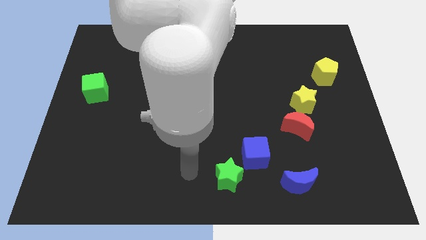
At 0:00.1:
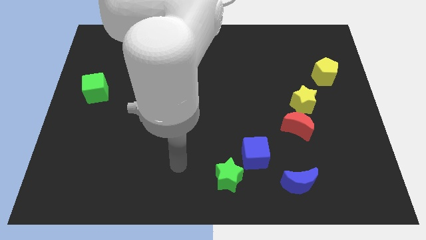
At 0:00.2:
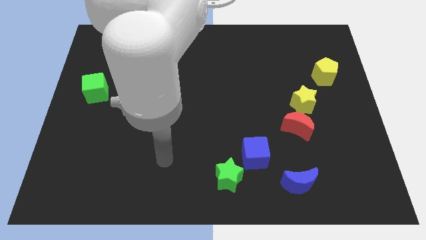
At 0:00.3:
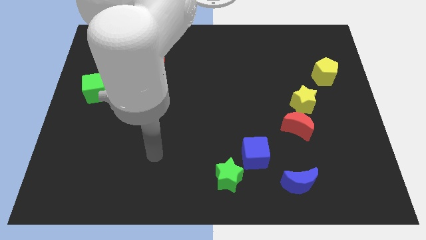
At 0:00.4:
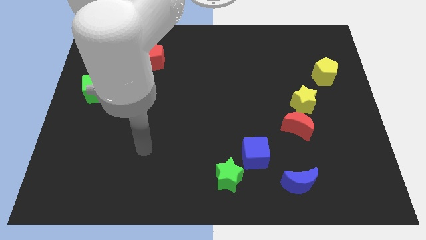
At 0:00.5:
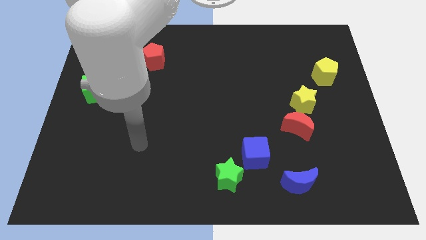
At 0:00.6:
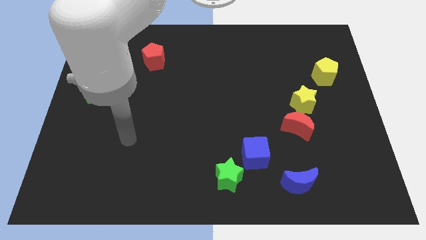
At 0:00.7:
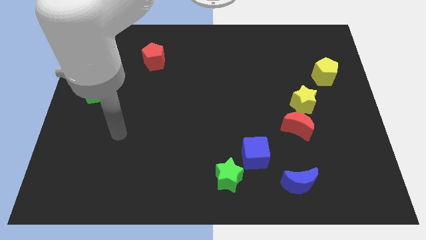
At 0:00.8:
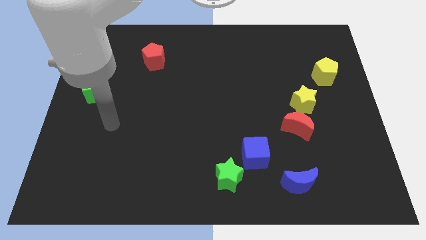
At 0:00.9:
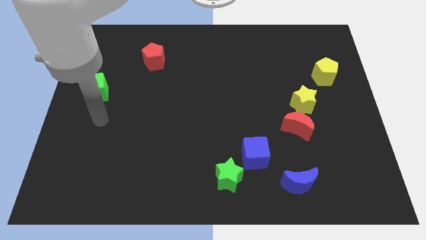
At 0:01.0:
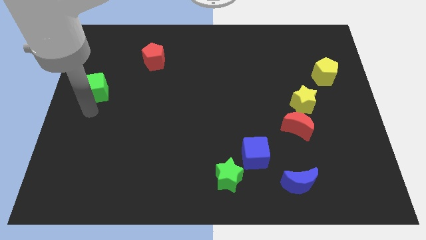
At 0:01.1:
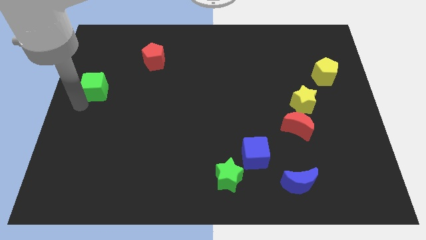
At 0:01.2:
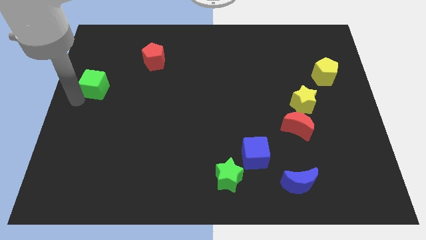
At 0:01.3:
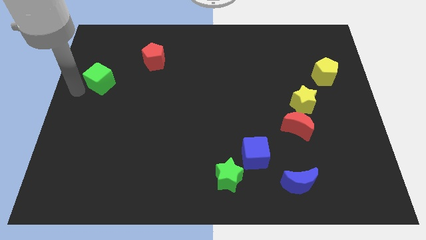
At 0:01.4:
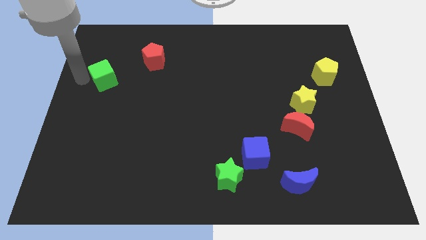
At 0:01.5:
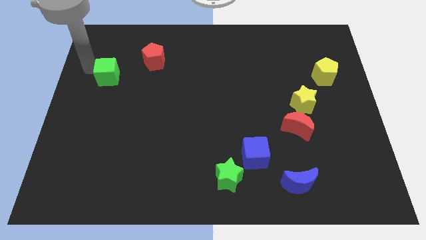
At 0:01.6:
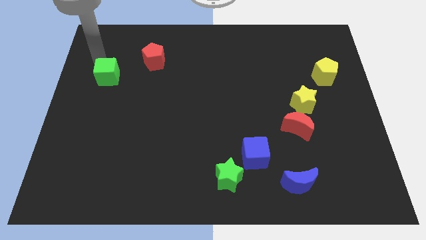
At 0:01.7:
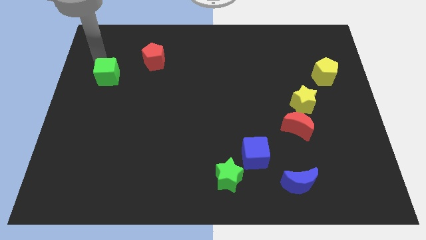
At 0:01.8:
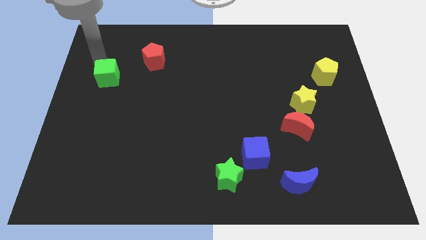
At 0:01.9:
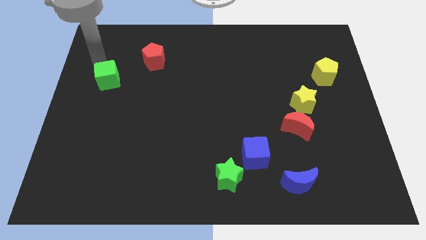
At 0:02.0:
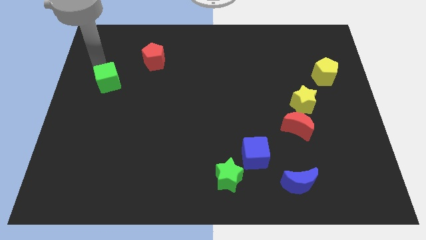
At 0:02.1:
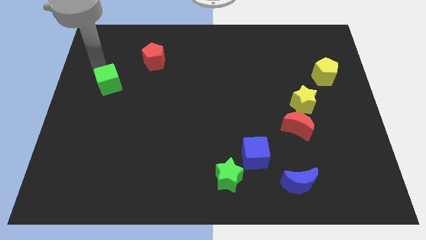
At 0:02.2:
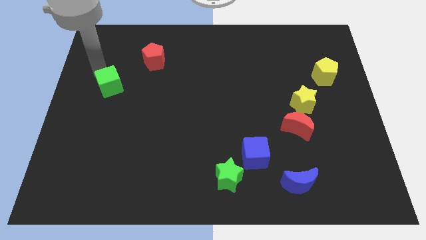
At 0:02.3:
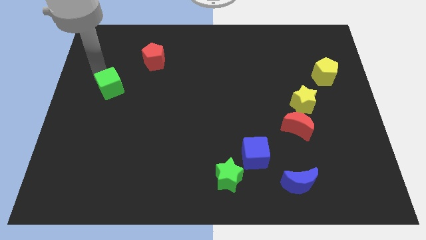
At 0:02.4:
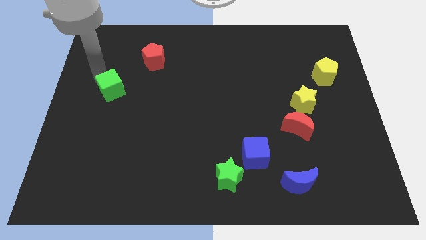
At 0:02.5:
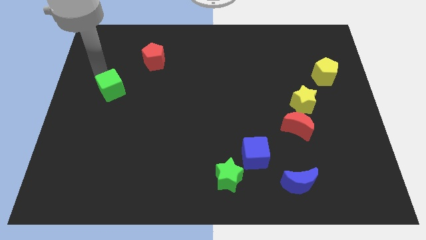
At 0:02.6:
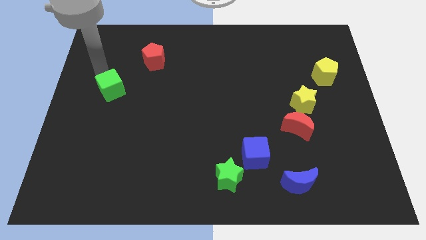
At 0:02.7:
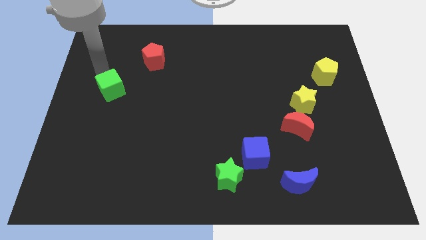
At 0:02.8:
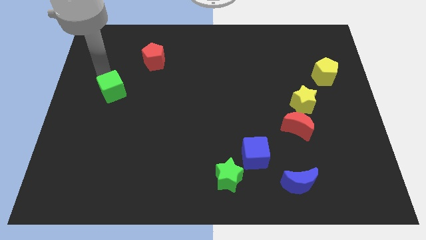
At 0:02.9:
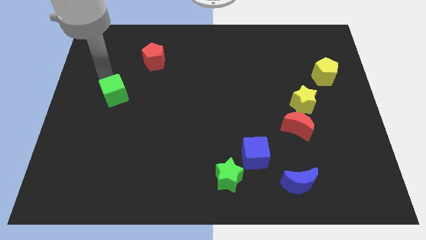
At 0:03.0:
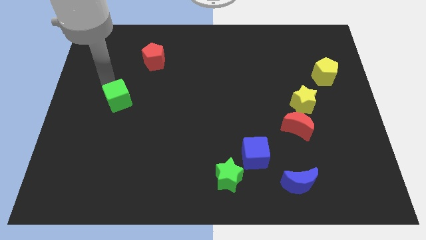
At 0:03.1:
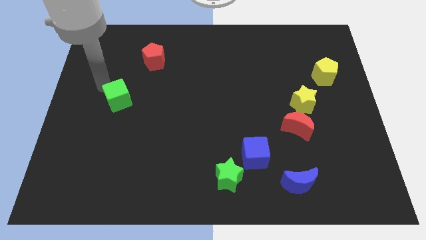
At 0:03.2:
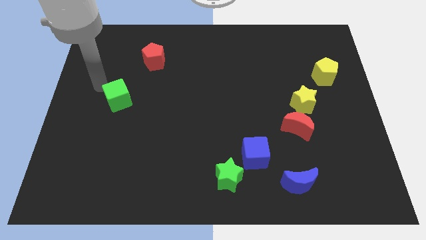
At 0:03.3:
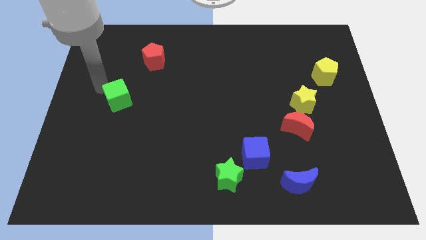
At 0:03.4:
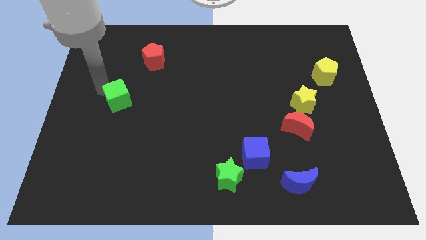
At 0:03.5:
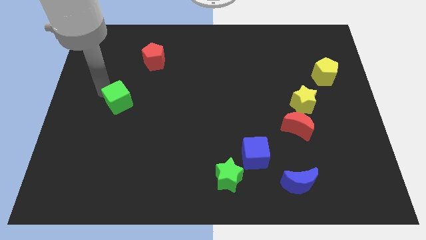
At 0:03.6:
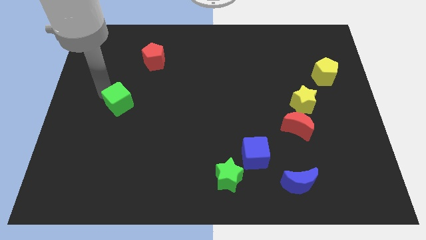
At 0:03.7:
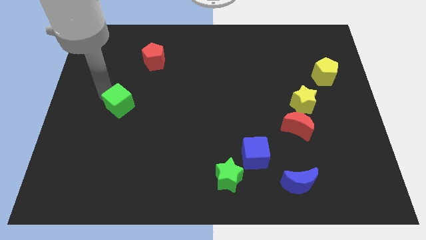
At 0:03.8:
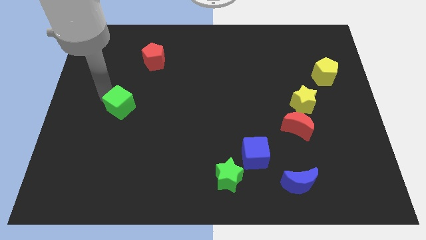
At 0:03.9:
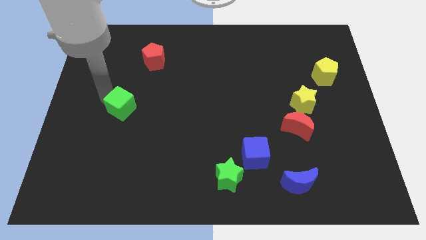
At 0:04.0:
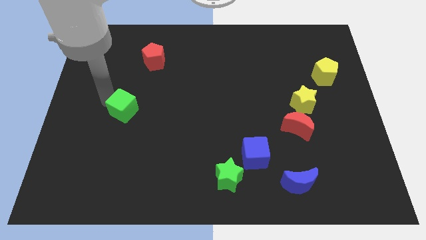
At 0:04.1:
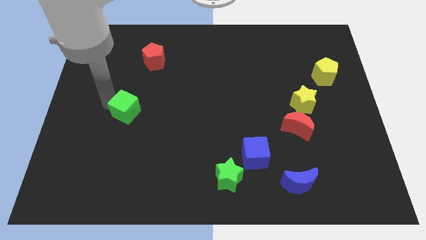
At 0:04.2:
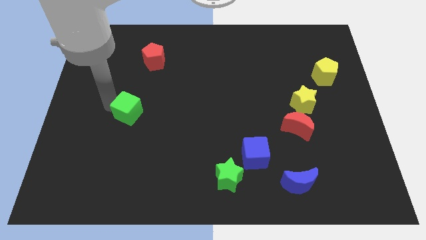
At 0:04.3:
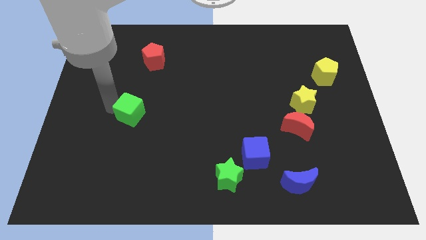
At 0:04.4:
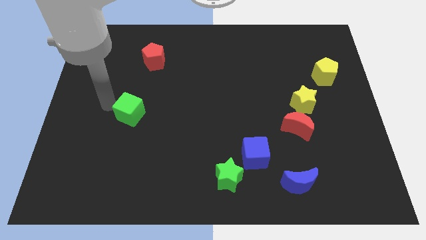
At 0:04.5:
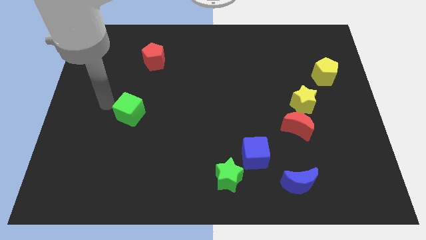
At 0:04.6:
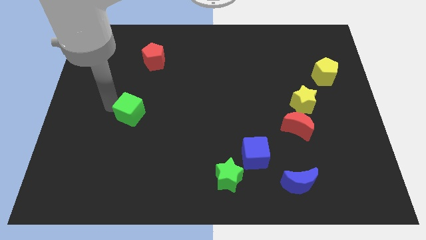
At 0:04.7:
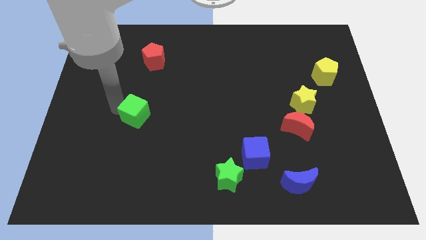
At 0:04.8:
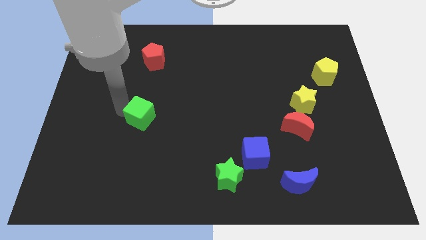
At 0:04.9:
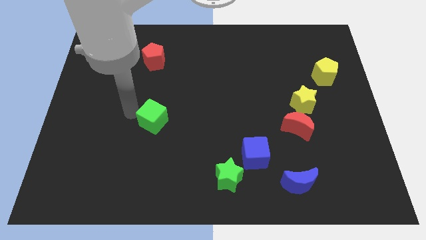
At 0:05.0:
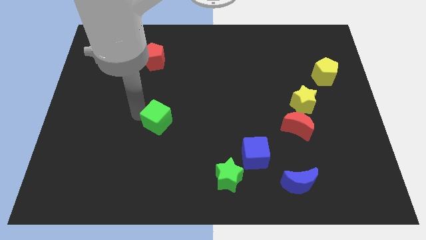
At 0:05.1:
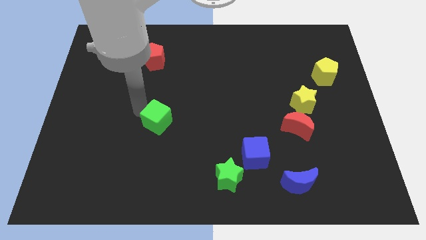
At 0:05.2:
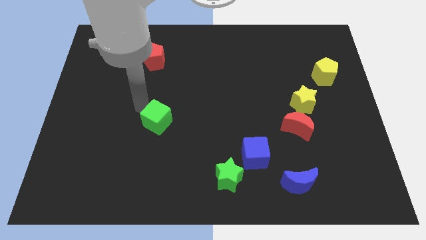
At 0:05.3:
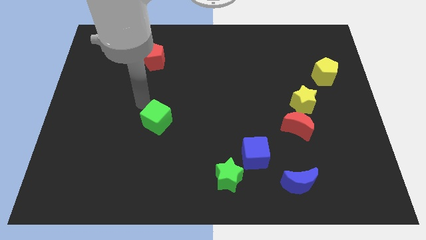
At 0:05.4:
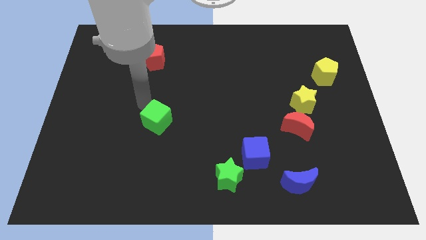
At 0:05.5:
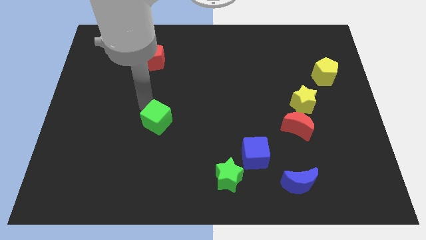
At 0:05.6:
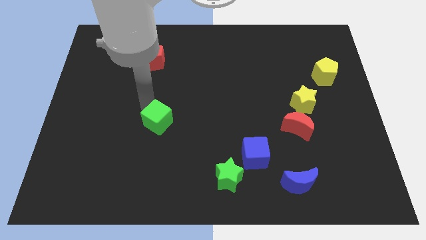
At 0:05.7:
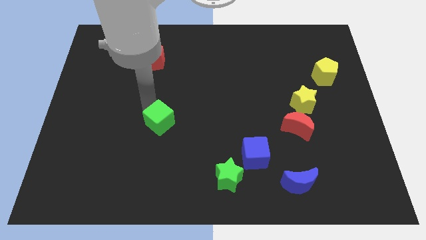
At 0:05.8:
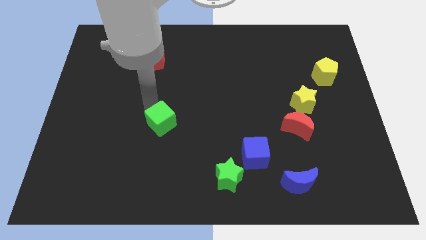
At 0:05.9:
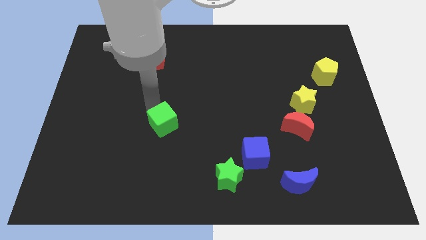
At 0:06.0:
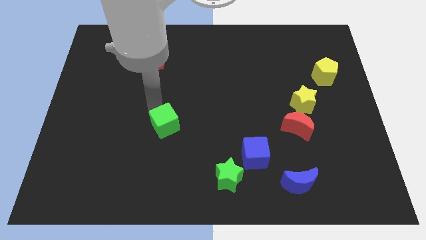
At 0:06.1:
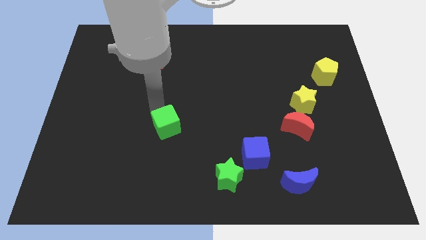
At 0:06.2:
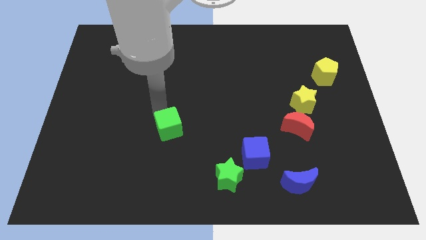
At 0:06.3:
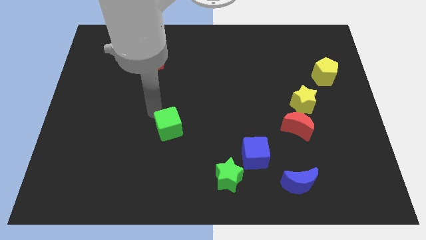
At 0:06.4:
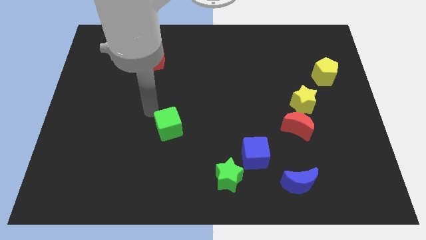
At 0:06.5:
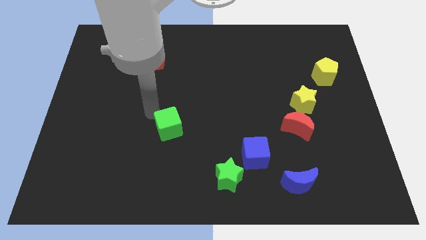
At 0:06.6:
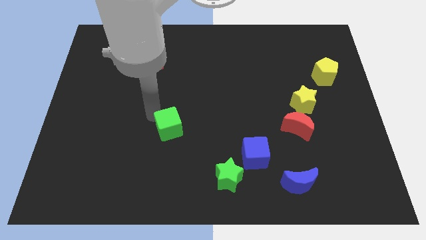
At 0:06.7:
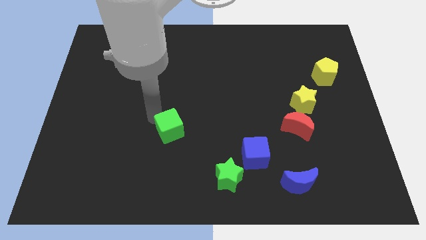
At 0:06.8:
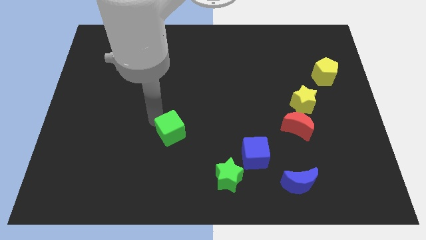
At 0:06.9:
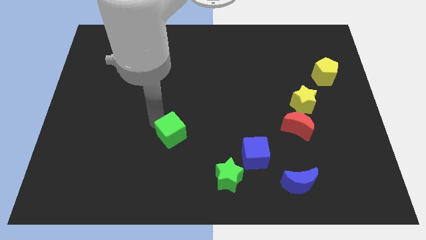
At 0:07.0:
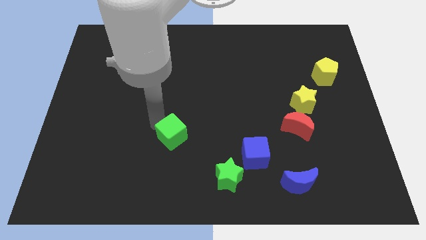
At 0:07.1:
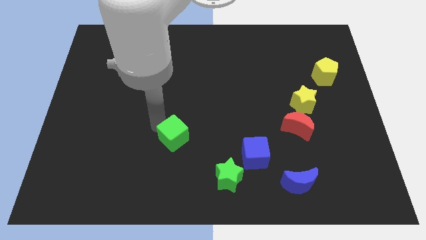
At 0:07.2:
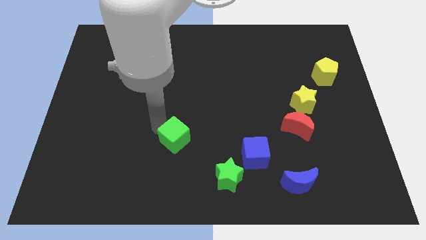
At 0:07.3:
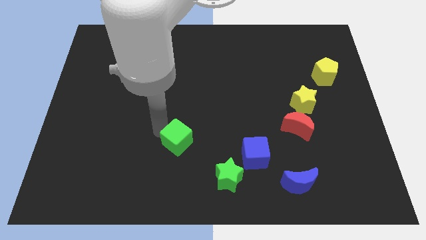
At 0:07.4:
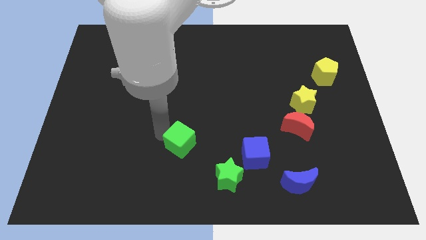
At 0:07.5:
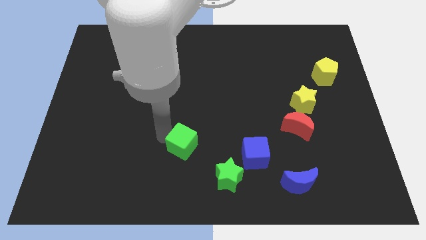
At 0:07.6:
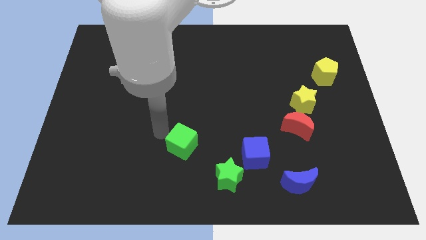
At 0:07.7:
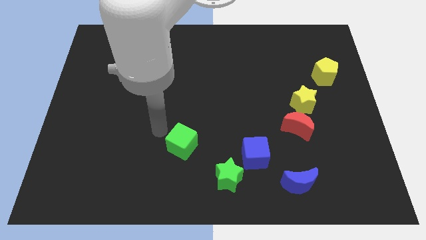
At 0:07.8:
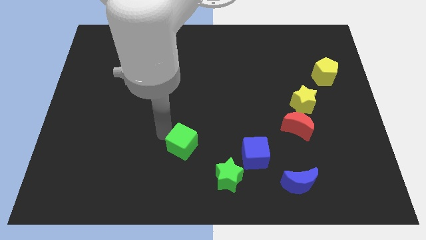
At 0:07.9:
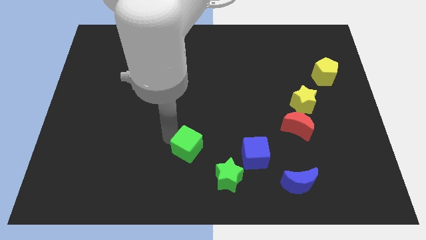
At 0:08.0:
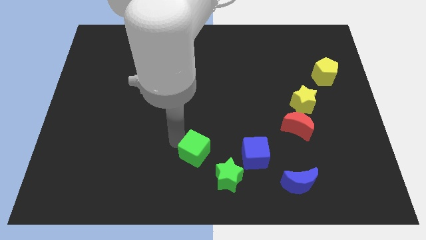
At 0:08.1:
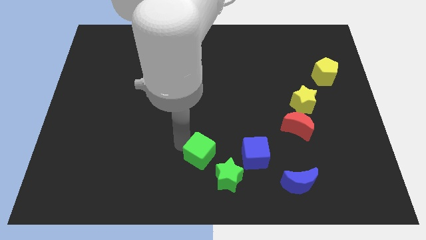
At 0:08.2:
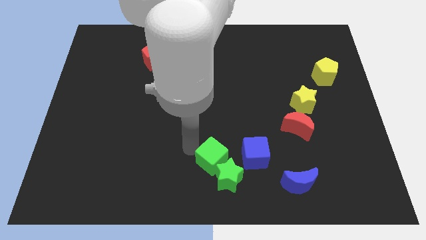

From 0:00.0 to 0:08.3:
slide the green cube to the green star
